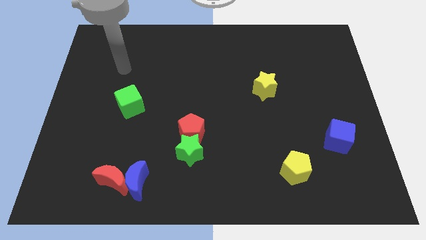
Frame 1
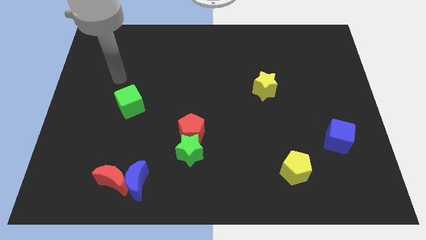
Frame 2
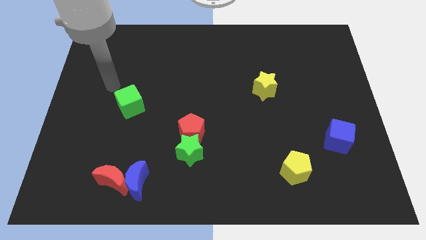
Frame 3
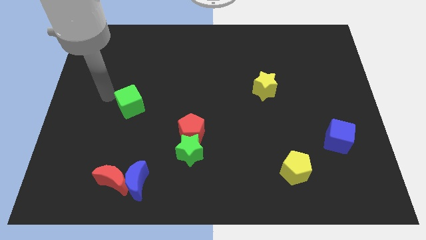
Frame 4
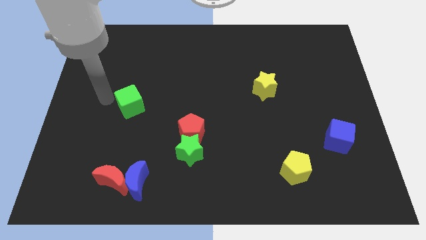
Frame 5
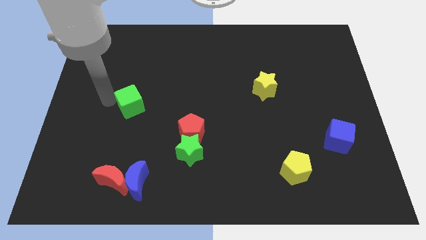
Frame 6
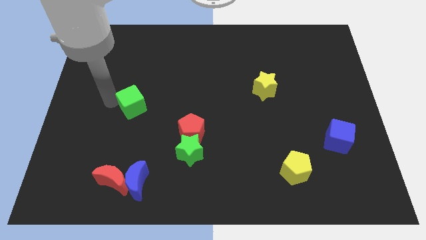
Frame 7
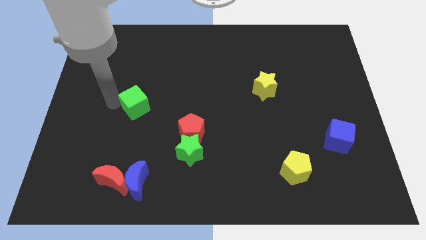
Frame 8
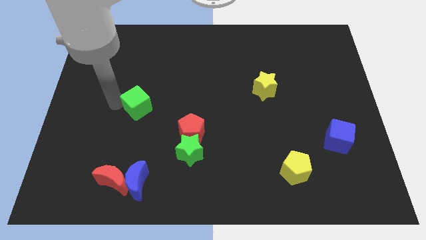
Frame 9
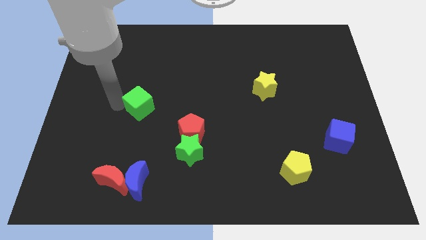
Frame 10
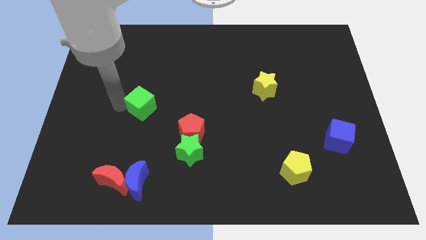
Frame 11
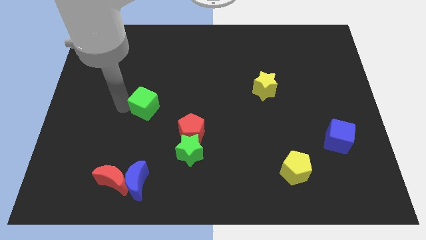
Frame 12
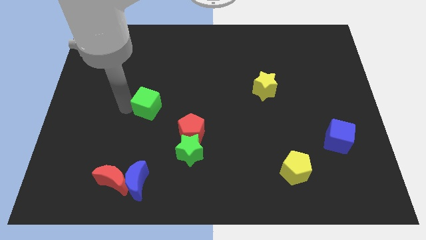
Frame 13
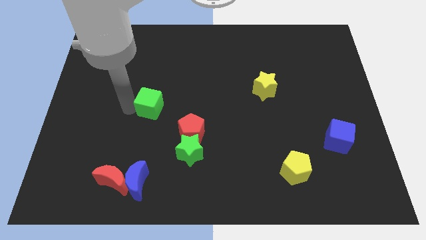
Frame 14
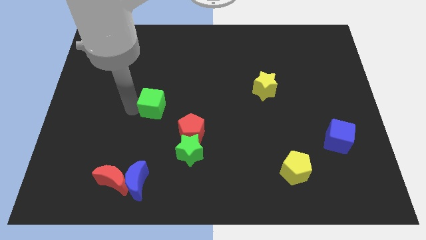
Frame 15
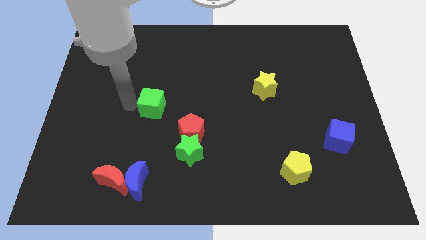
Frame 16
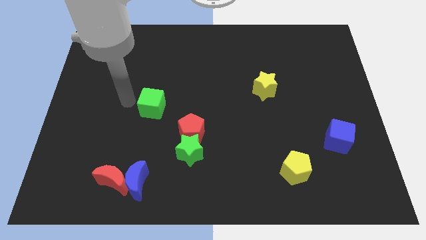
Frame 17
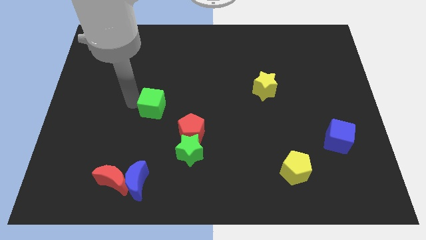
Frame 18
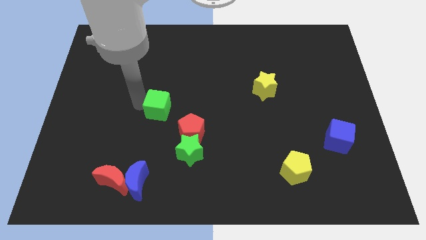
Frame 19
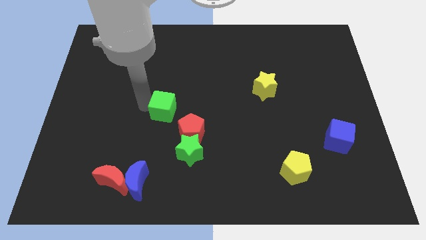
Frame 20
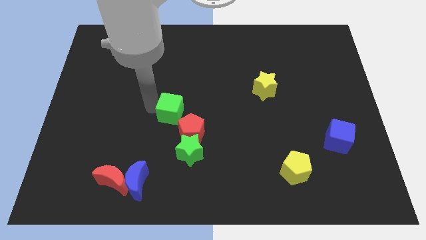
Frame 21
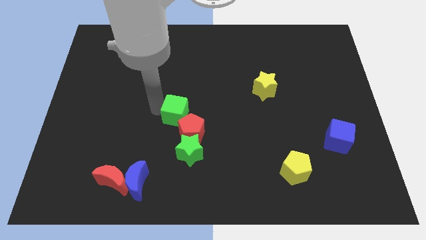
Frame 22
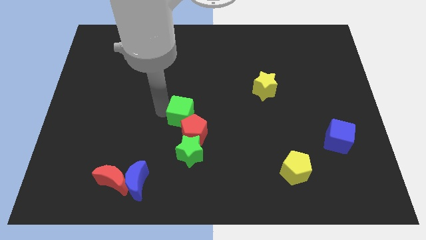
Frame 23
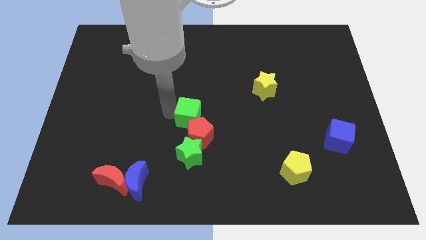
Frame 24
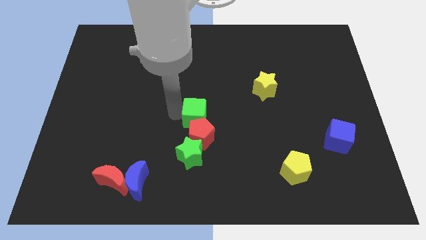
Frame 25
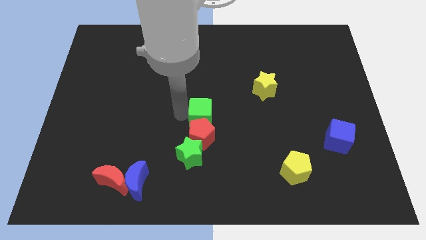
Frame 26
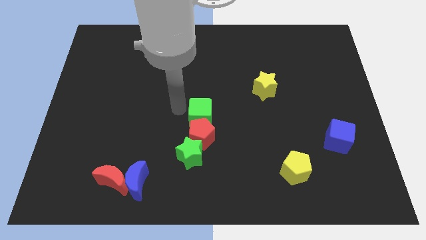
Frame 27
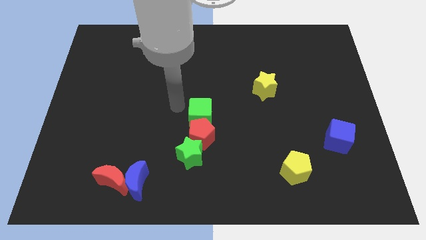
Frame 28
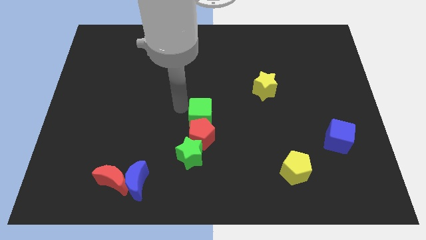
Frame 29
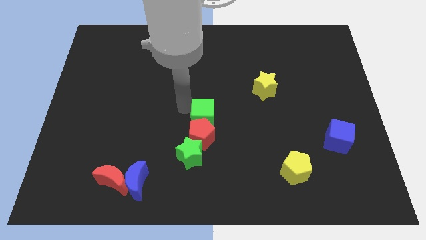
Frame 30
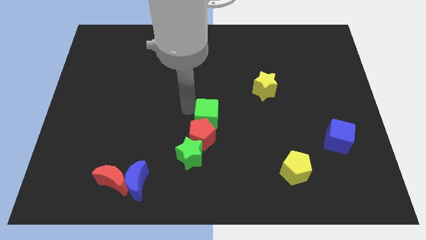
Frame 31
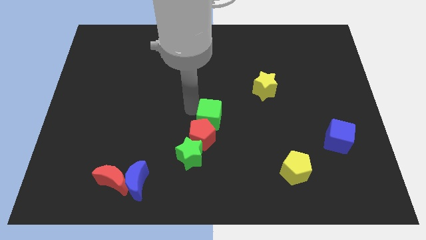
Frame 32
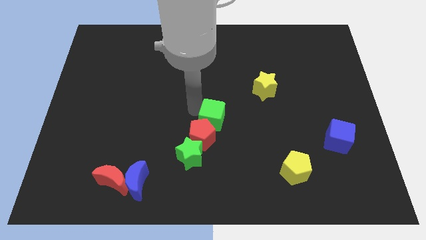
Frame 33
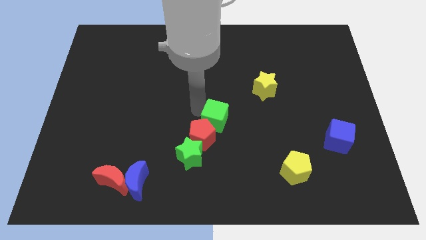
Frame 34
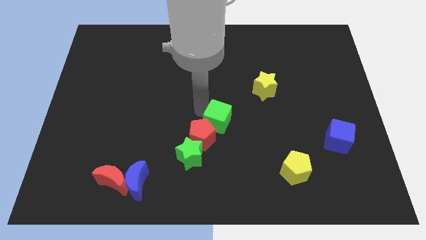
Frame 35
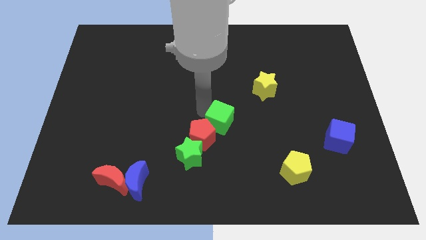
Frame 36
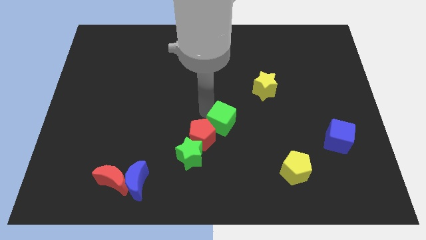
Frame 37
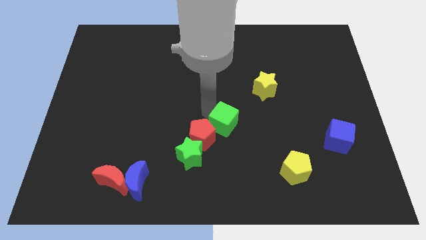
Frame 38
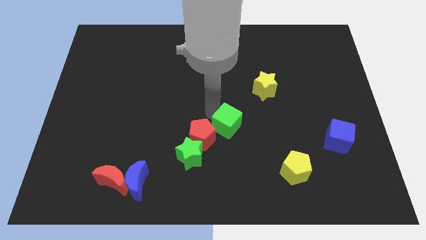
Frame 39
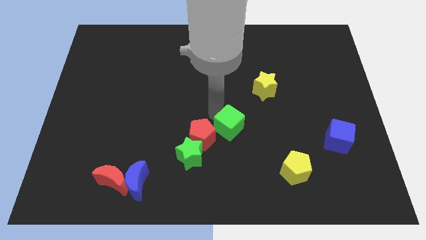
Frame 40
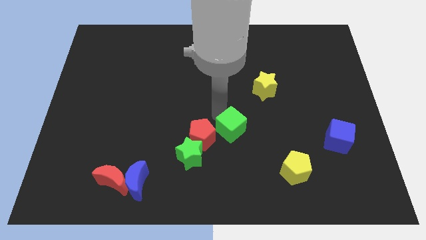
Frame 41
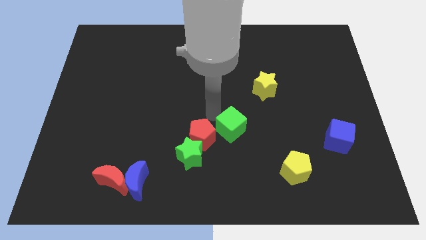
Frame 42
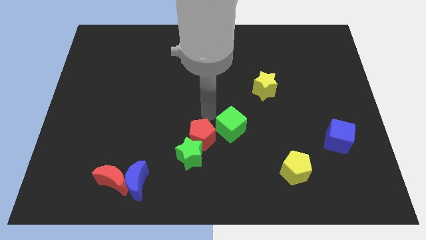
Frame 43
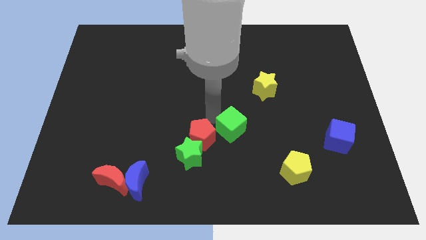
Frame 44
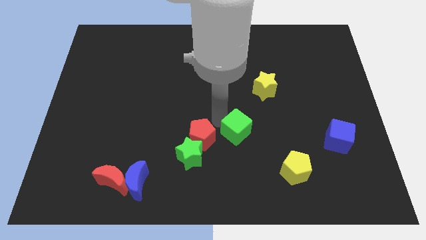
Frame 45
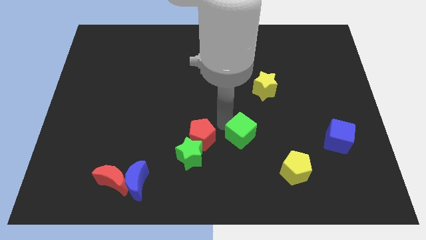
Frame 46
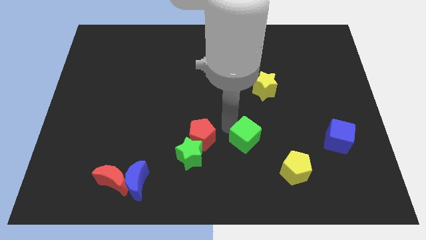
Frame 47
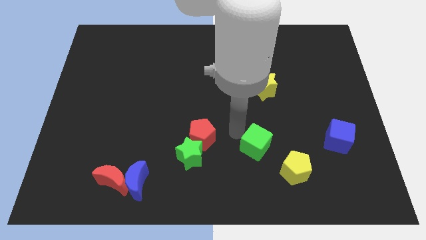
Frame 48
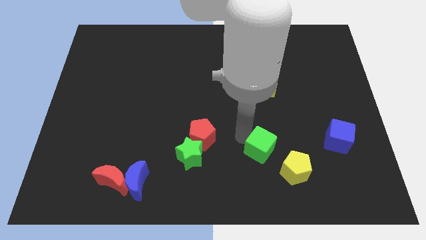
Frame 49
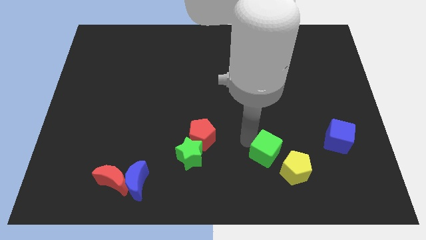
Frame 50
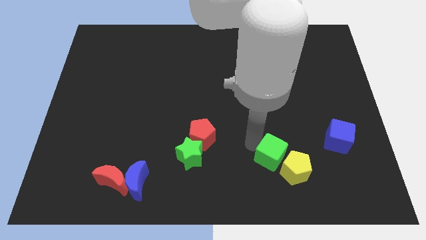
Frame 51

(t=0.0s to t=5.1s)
move the green cube next to the yellow pentagon

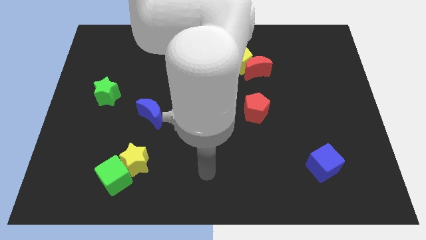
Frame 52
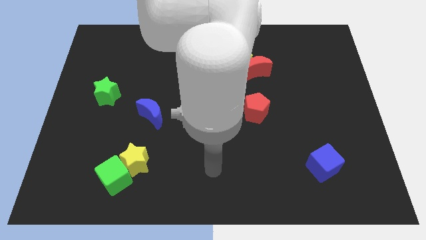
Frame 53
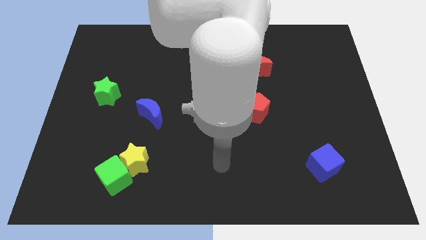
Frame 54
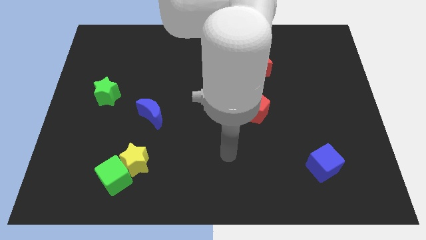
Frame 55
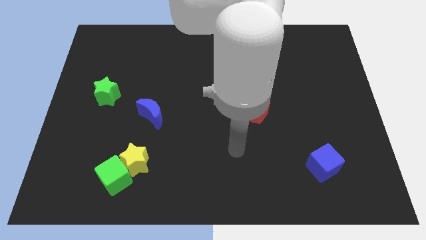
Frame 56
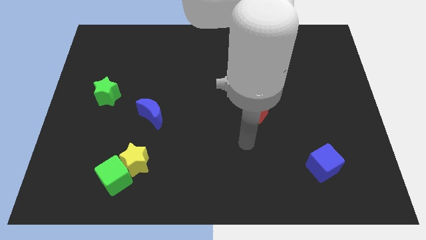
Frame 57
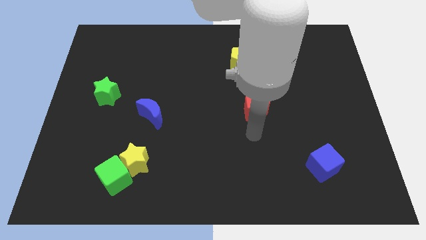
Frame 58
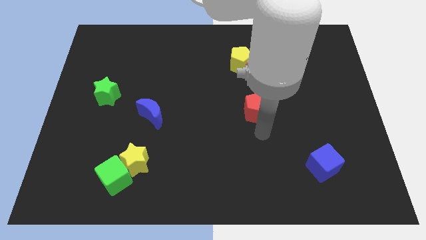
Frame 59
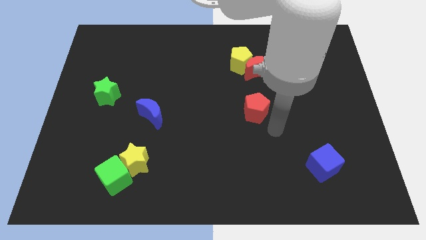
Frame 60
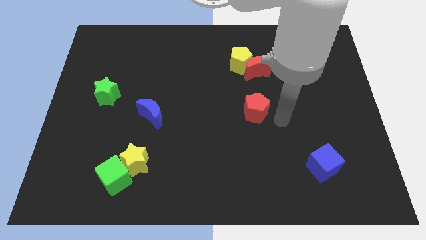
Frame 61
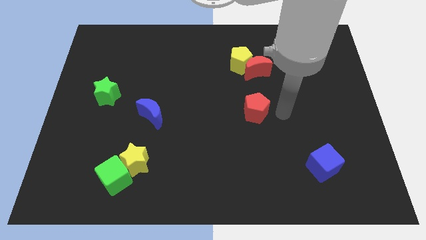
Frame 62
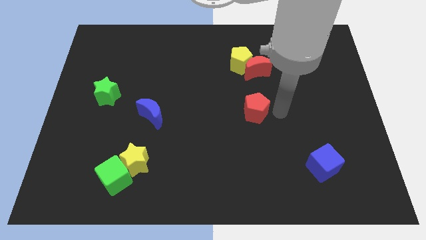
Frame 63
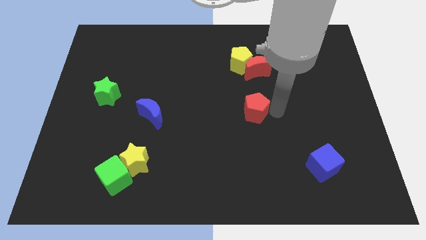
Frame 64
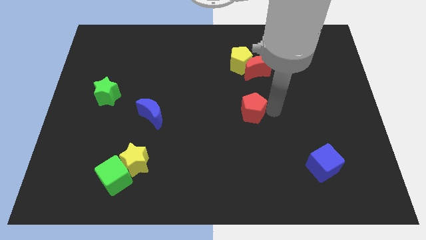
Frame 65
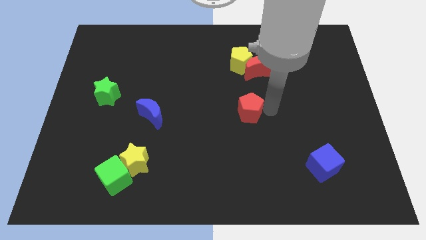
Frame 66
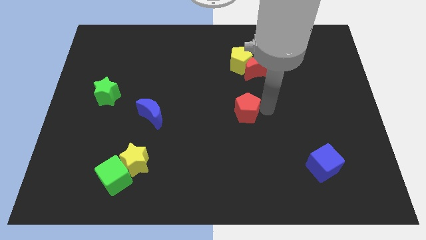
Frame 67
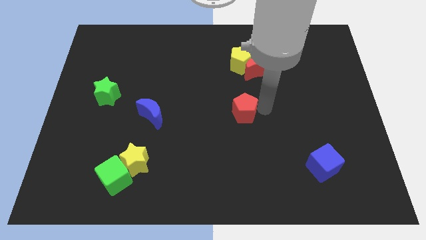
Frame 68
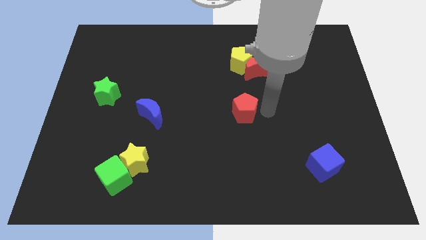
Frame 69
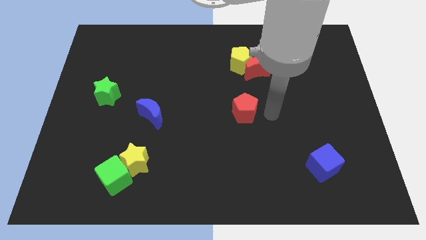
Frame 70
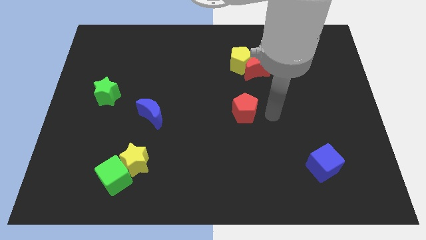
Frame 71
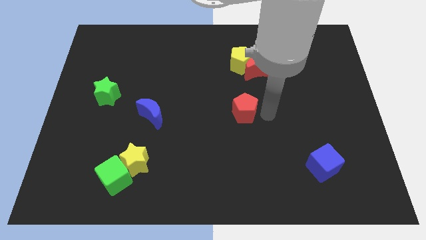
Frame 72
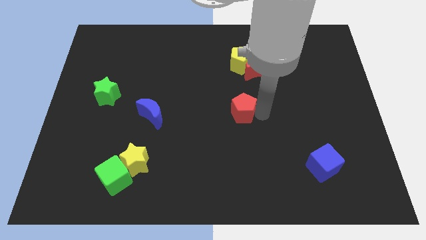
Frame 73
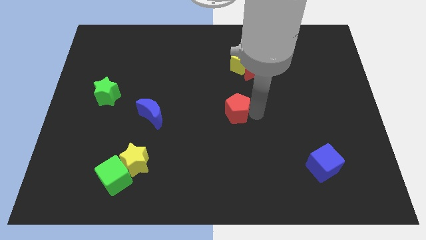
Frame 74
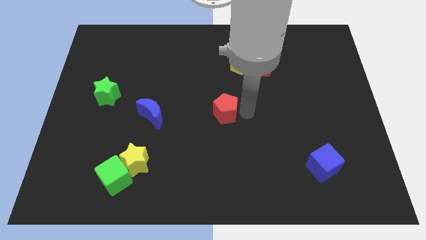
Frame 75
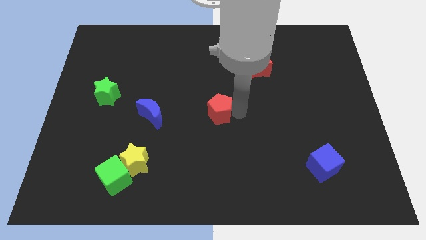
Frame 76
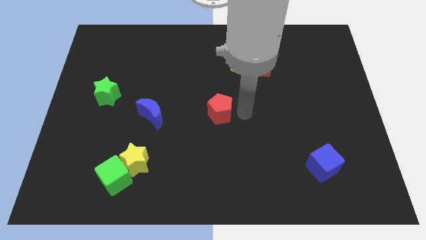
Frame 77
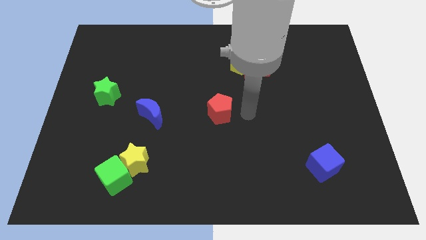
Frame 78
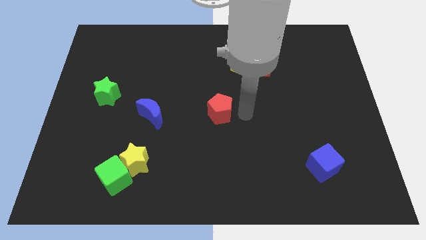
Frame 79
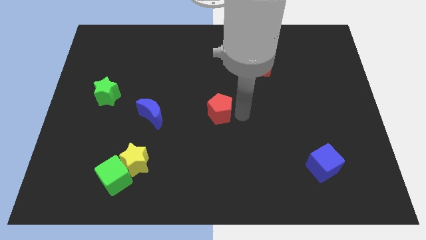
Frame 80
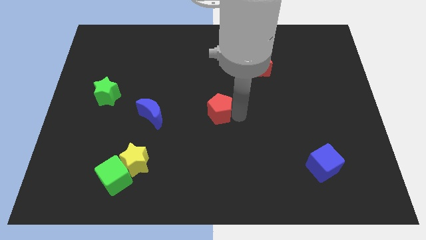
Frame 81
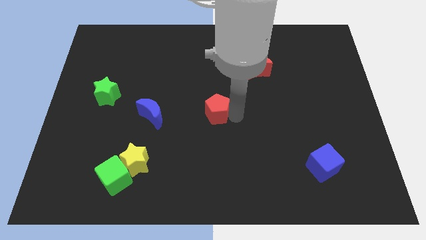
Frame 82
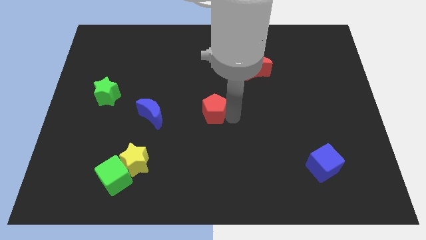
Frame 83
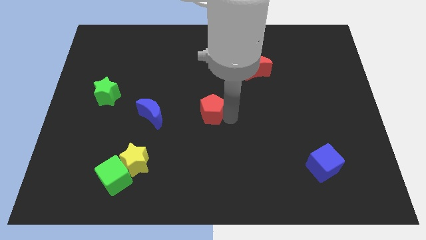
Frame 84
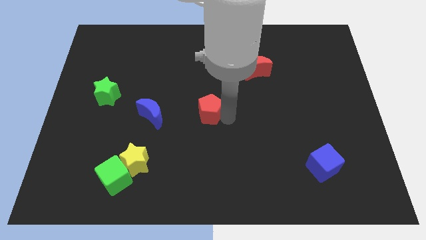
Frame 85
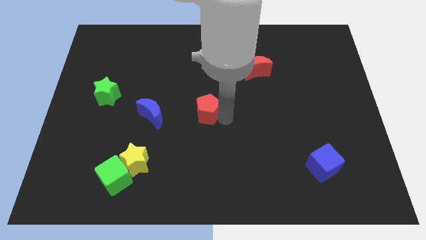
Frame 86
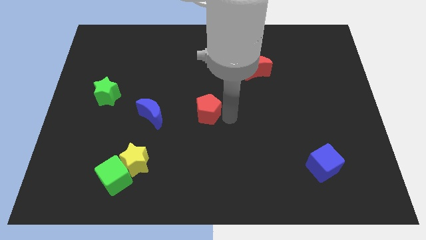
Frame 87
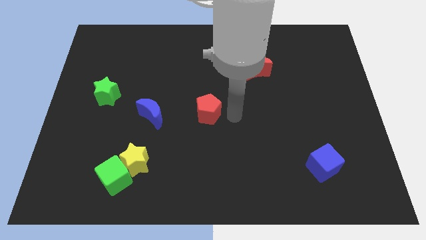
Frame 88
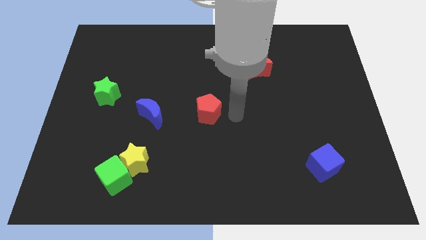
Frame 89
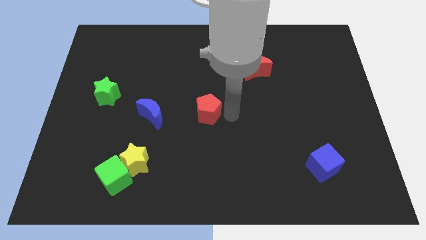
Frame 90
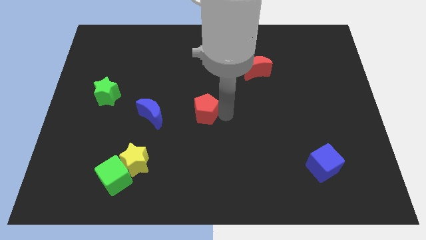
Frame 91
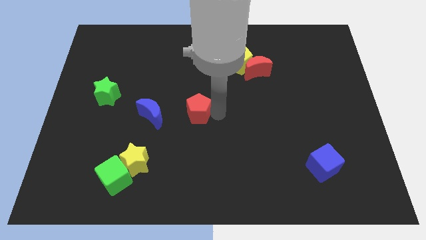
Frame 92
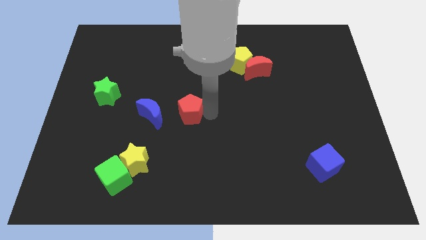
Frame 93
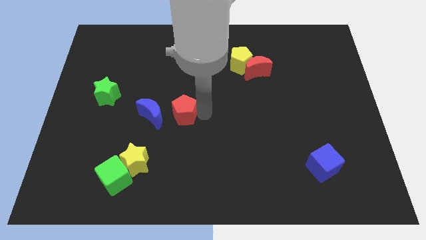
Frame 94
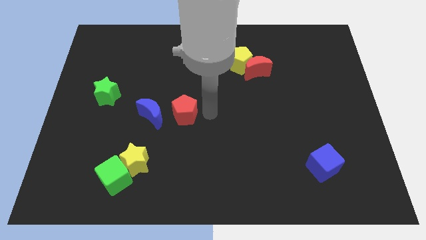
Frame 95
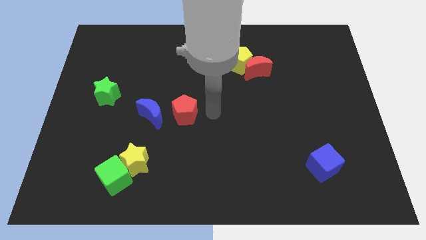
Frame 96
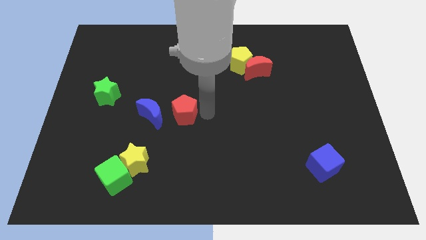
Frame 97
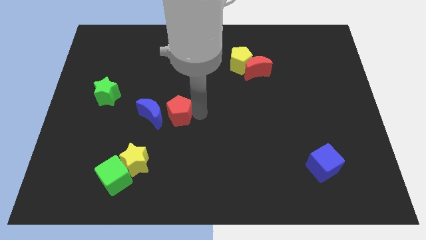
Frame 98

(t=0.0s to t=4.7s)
put the red pentagon towards the blue moon
